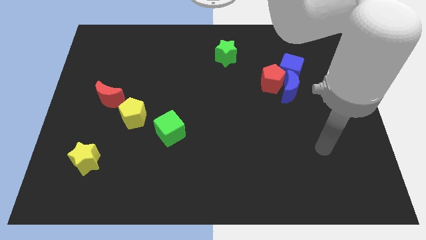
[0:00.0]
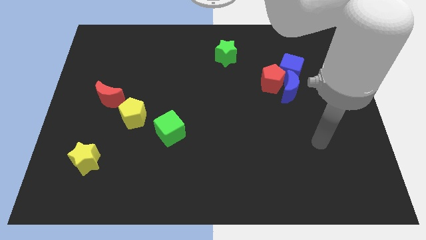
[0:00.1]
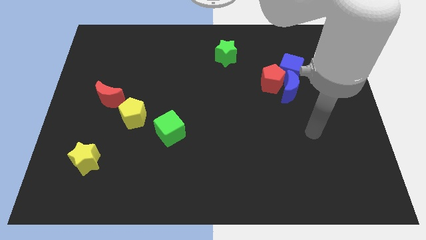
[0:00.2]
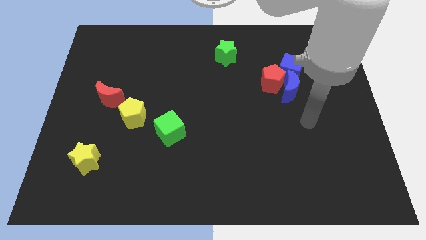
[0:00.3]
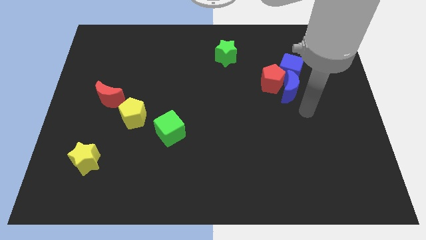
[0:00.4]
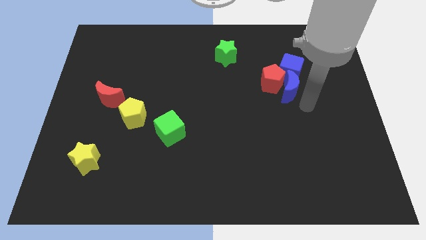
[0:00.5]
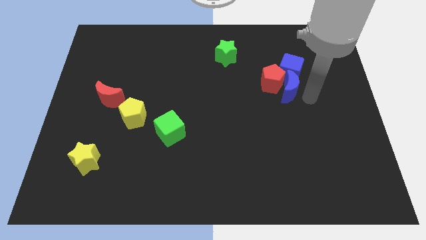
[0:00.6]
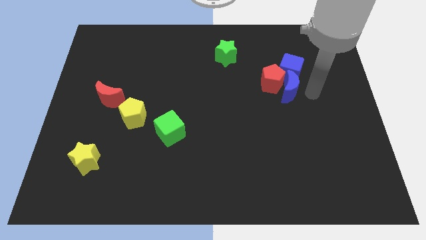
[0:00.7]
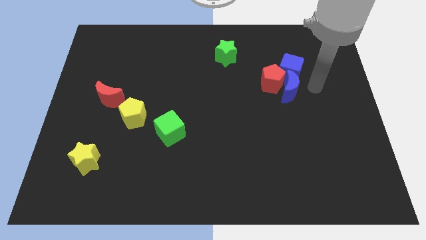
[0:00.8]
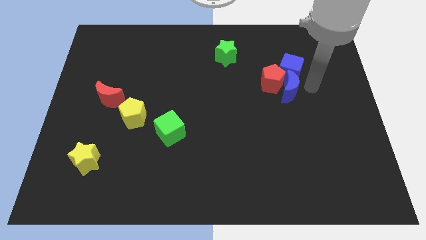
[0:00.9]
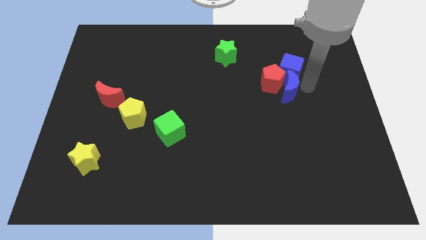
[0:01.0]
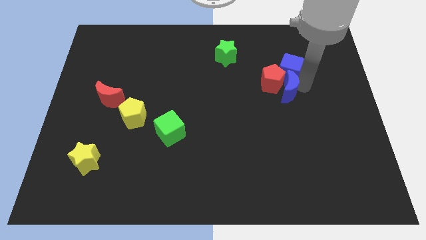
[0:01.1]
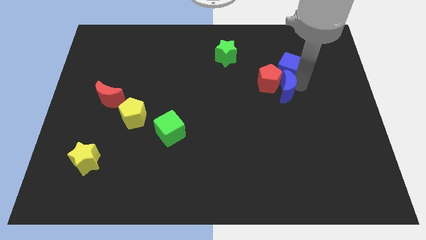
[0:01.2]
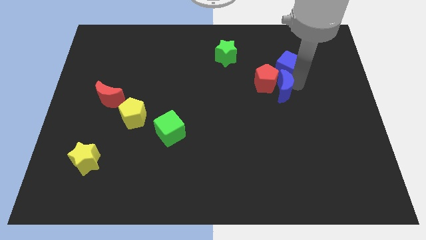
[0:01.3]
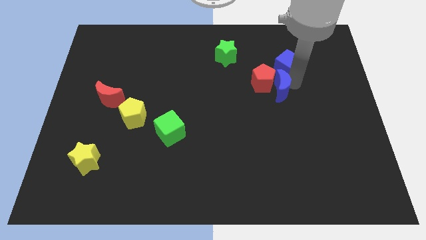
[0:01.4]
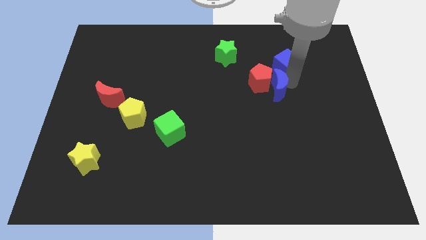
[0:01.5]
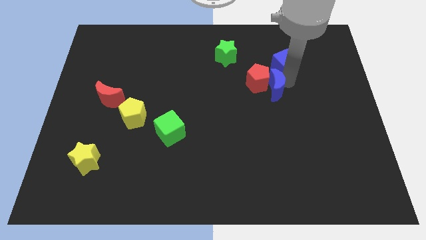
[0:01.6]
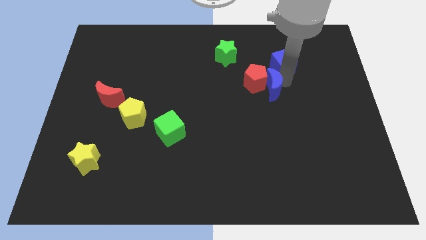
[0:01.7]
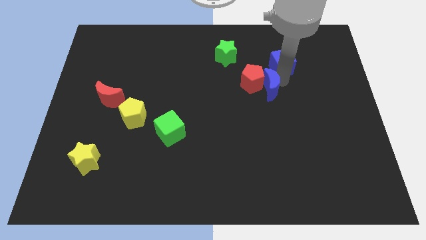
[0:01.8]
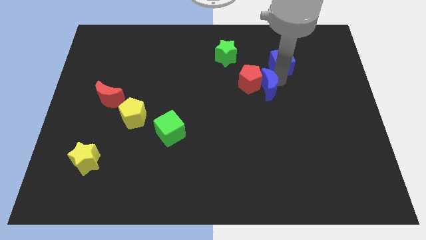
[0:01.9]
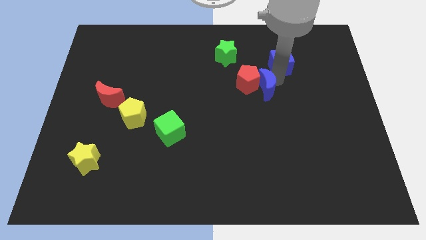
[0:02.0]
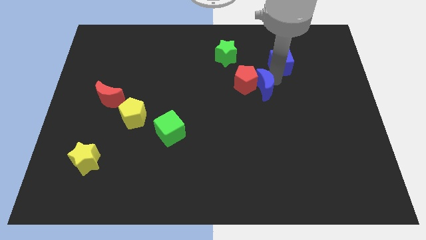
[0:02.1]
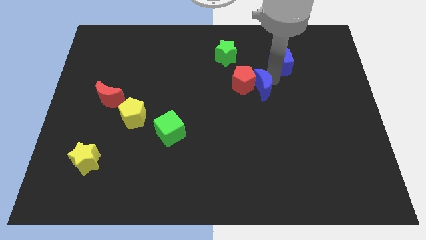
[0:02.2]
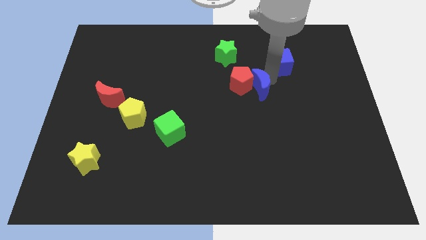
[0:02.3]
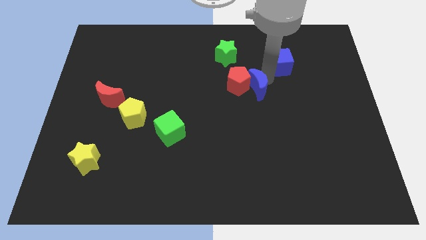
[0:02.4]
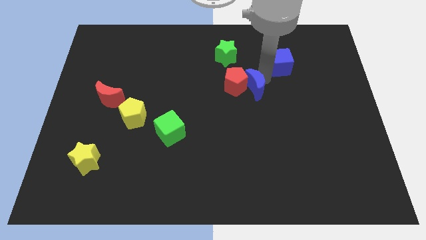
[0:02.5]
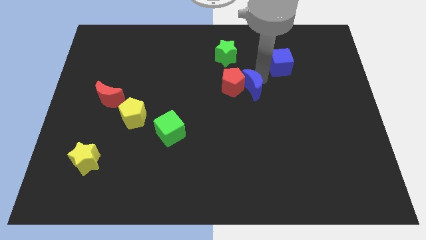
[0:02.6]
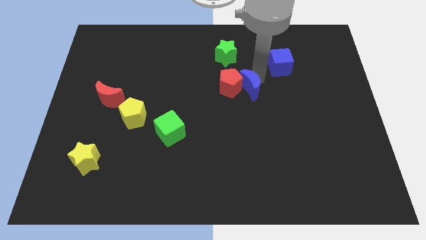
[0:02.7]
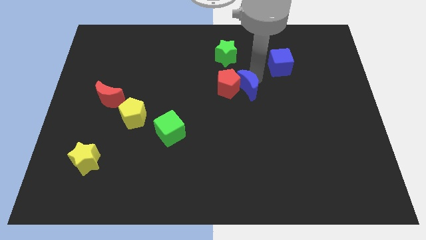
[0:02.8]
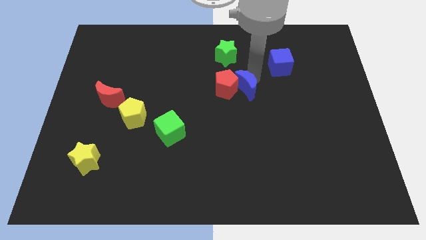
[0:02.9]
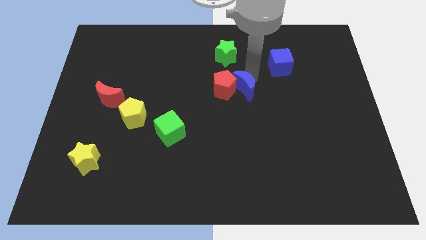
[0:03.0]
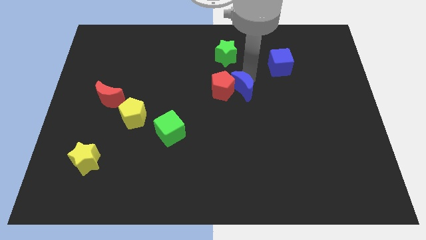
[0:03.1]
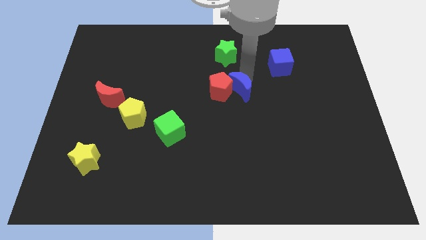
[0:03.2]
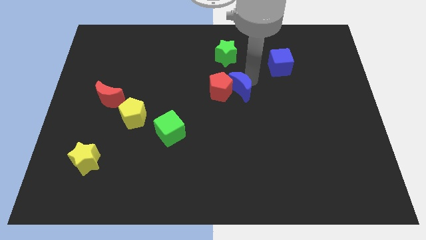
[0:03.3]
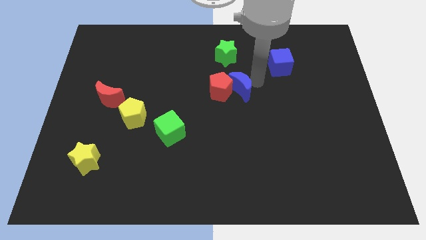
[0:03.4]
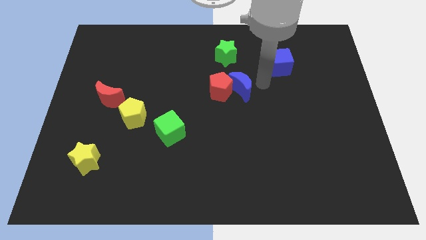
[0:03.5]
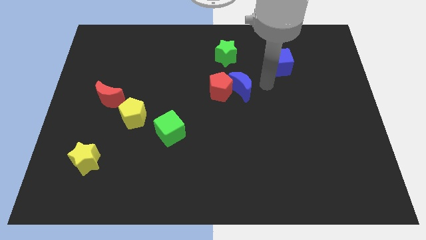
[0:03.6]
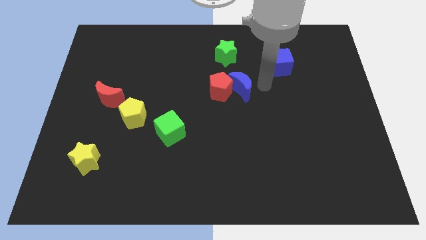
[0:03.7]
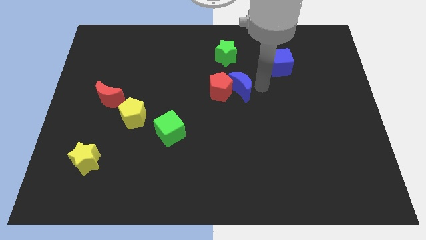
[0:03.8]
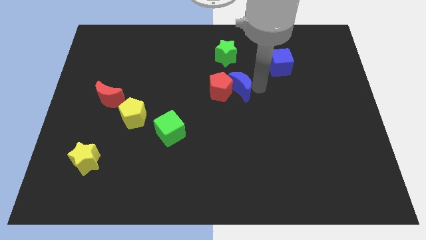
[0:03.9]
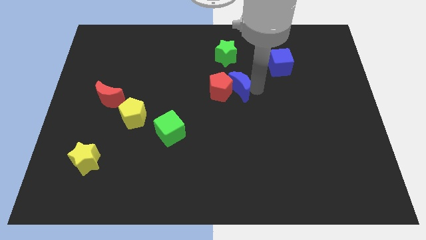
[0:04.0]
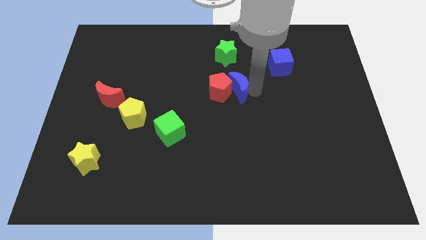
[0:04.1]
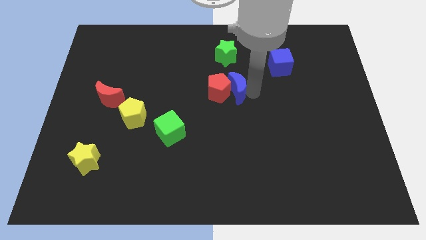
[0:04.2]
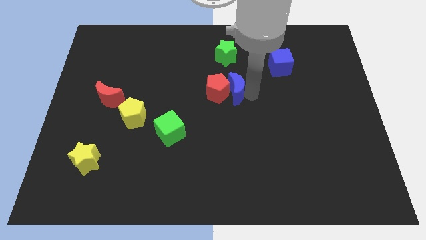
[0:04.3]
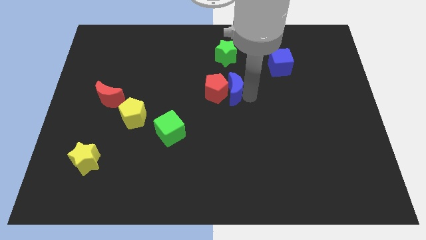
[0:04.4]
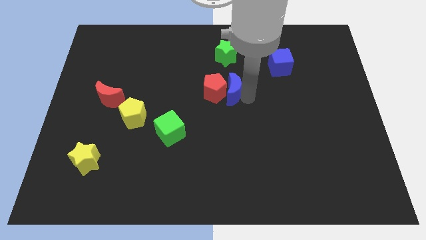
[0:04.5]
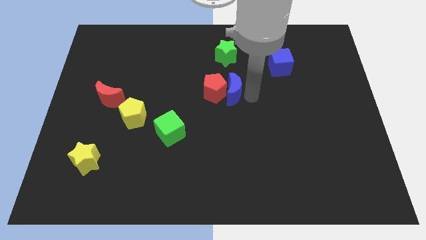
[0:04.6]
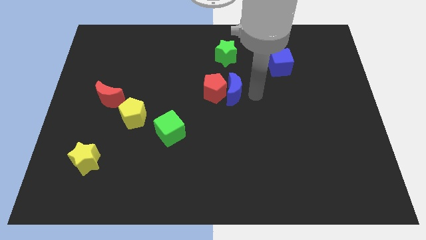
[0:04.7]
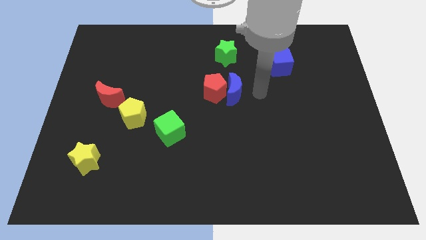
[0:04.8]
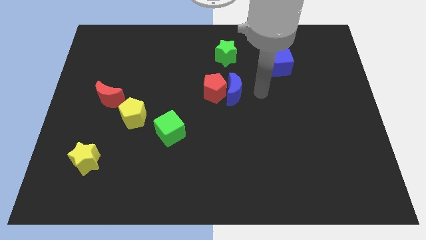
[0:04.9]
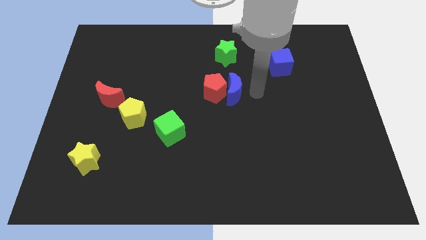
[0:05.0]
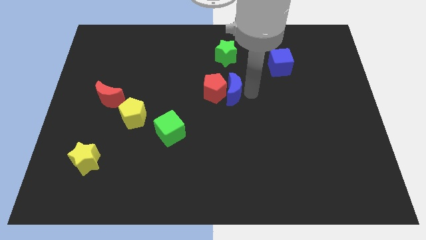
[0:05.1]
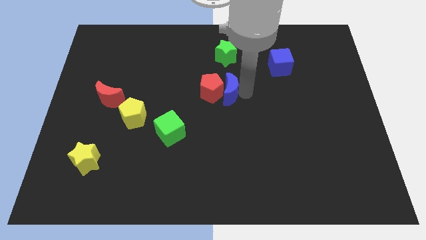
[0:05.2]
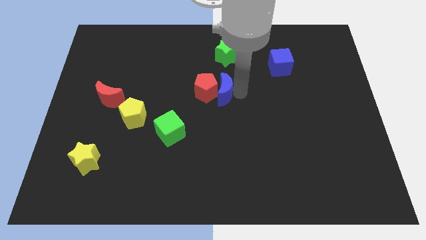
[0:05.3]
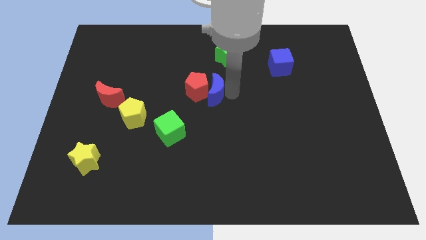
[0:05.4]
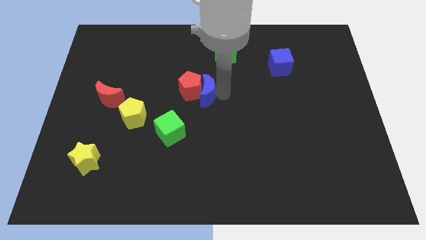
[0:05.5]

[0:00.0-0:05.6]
push the blue moon to the left

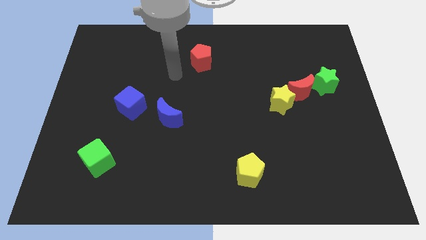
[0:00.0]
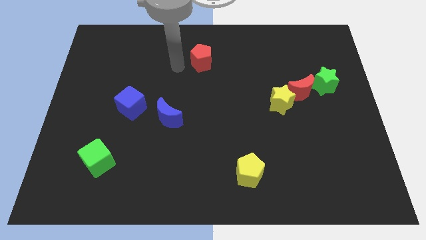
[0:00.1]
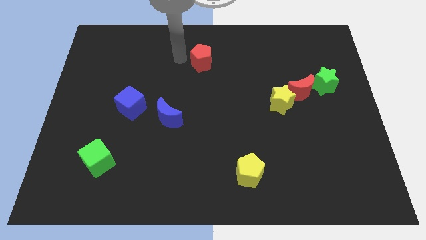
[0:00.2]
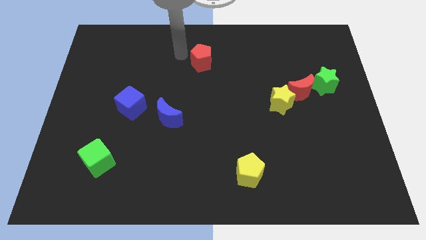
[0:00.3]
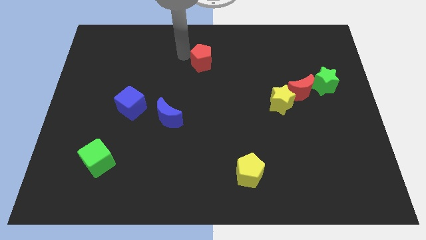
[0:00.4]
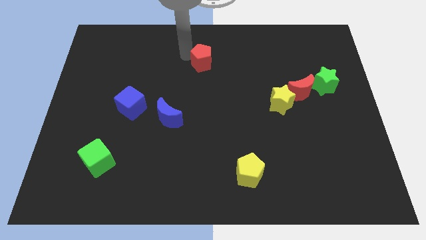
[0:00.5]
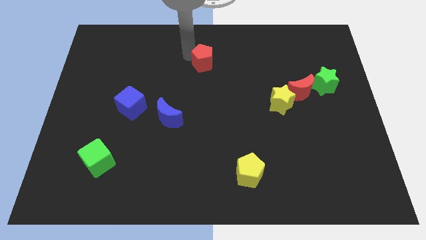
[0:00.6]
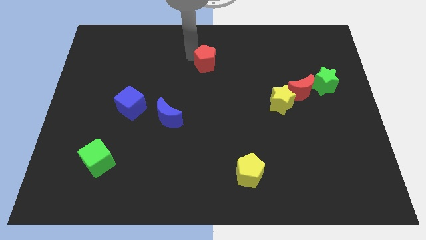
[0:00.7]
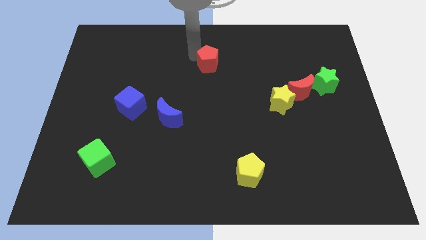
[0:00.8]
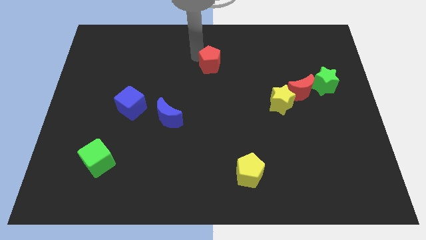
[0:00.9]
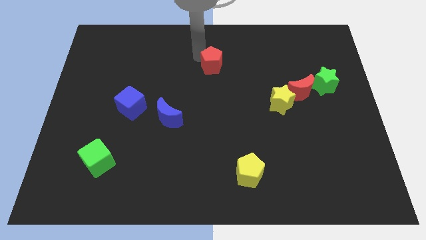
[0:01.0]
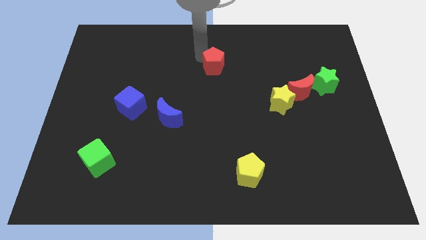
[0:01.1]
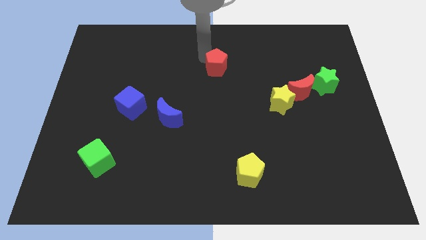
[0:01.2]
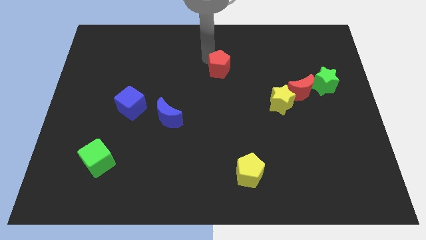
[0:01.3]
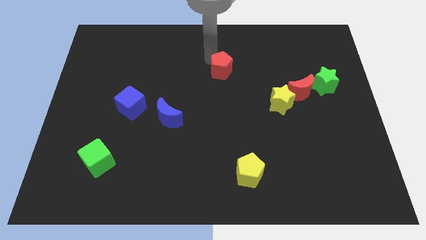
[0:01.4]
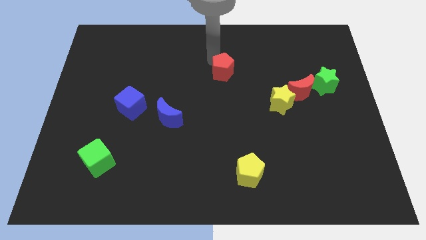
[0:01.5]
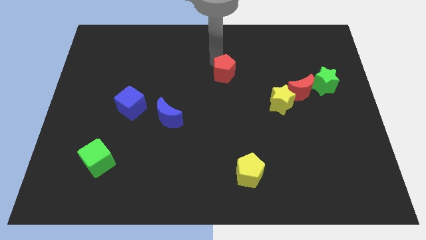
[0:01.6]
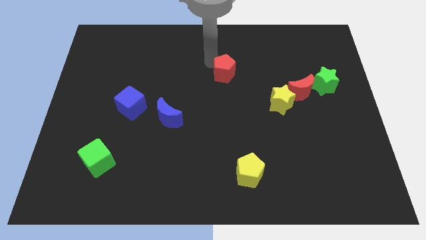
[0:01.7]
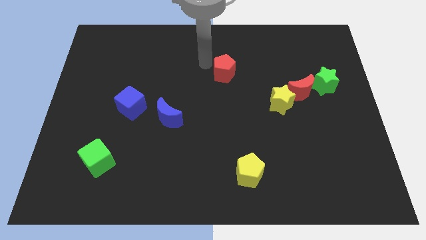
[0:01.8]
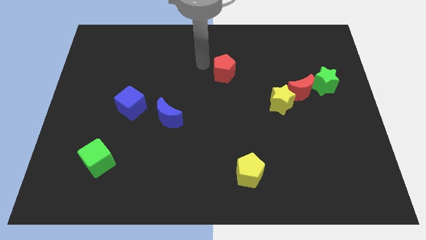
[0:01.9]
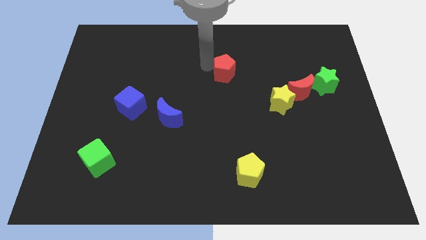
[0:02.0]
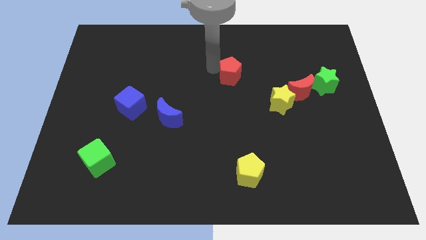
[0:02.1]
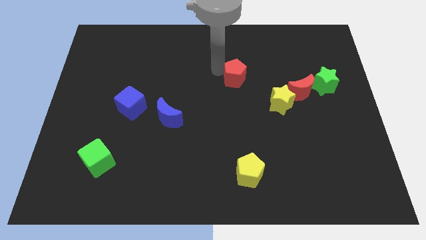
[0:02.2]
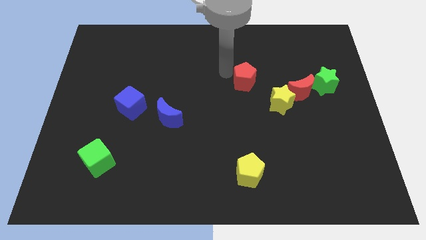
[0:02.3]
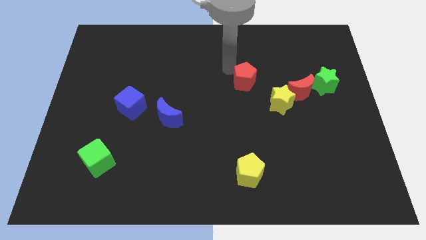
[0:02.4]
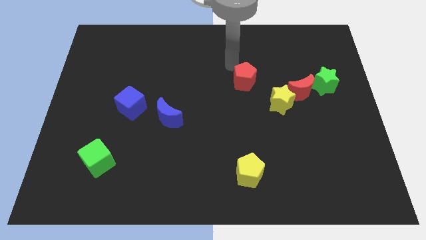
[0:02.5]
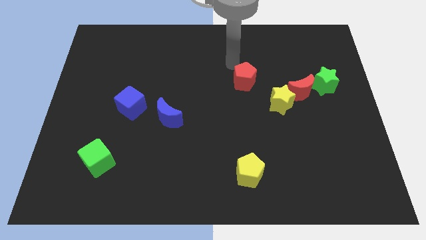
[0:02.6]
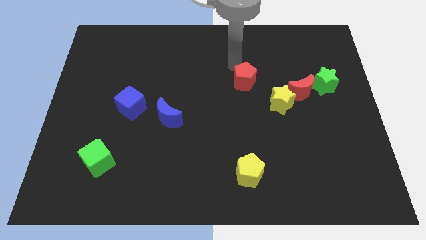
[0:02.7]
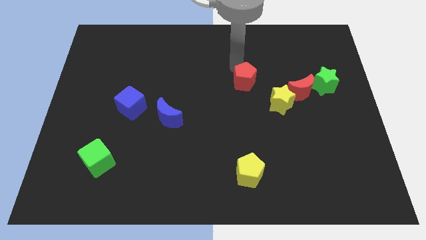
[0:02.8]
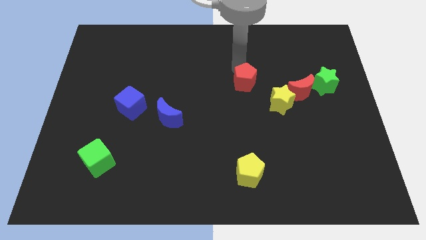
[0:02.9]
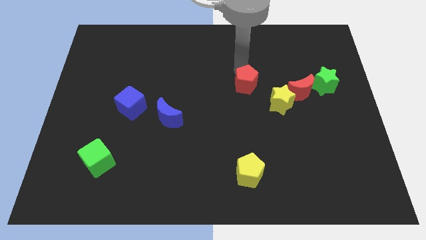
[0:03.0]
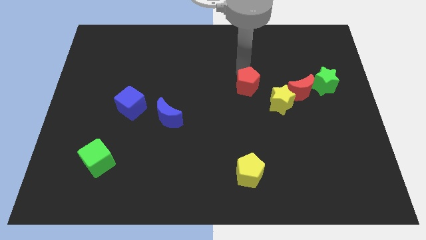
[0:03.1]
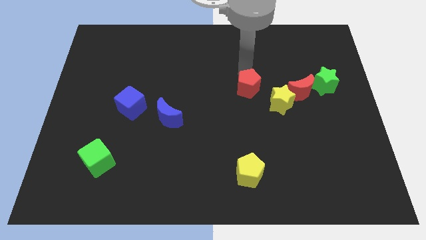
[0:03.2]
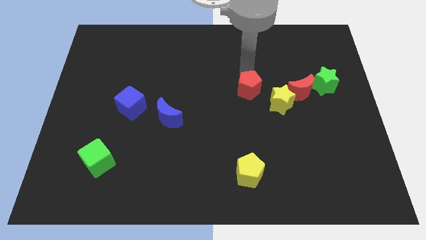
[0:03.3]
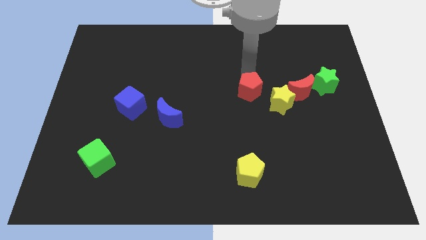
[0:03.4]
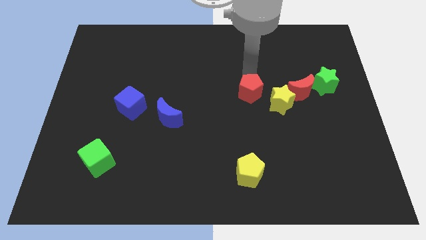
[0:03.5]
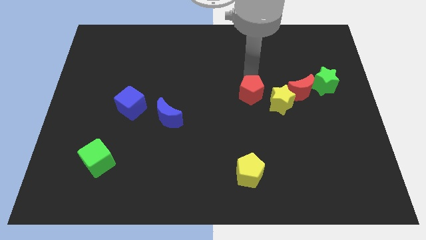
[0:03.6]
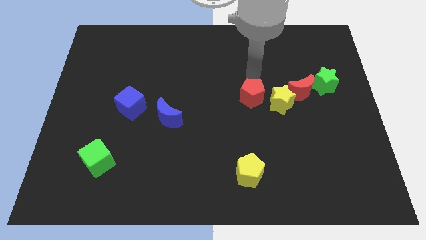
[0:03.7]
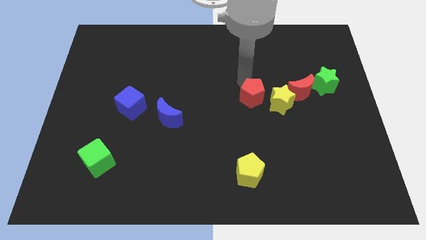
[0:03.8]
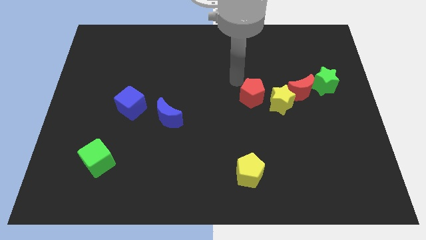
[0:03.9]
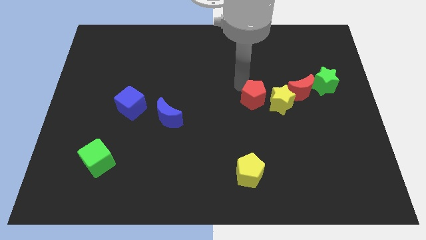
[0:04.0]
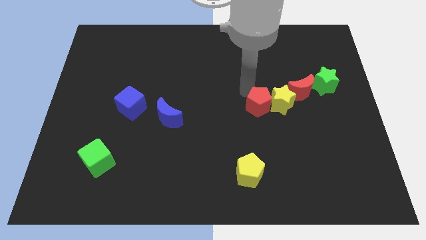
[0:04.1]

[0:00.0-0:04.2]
slide the red pentagon down and then right
